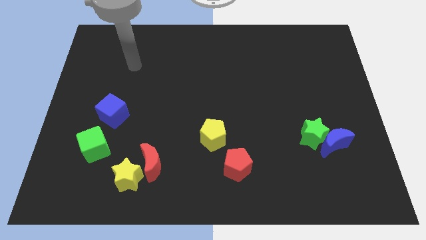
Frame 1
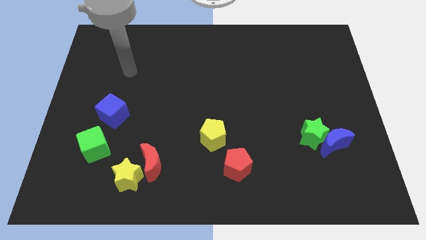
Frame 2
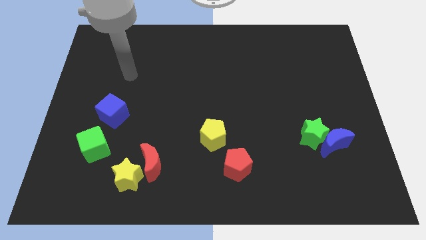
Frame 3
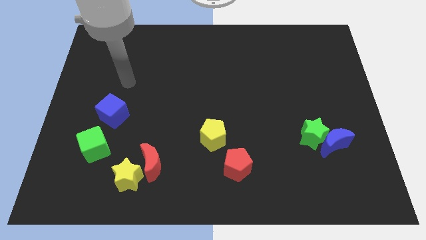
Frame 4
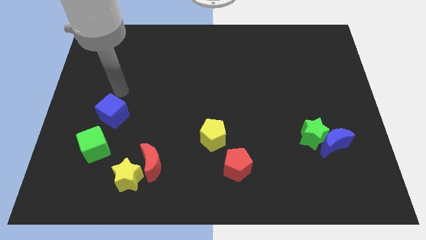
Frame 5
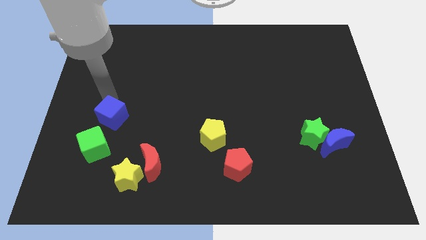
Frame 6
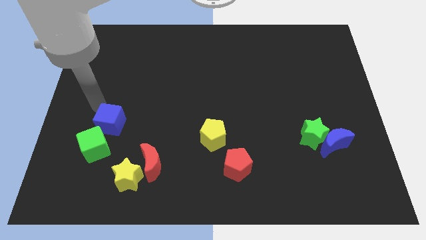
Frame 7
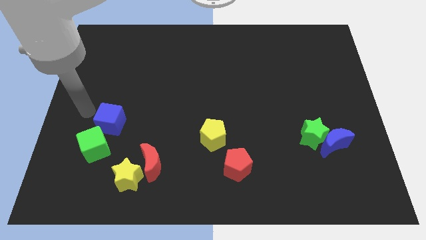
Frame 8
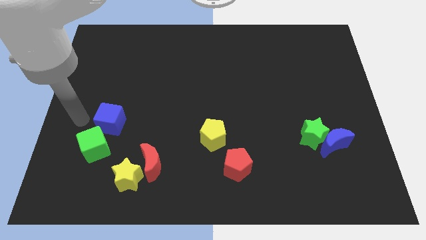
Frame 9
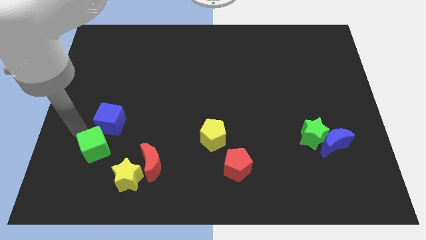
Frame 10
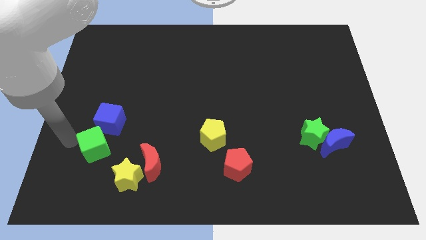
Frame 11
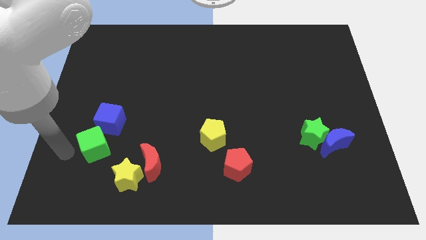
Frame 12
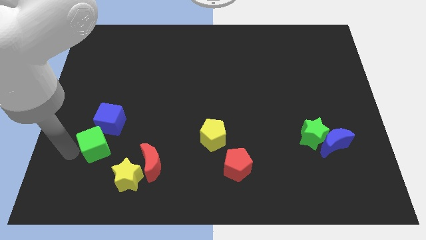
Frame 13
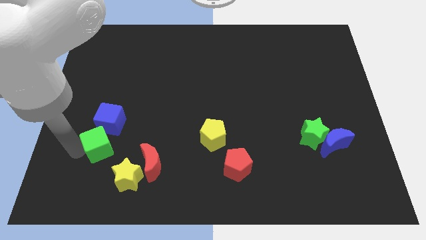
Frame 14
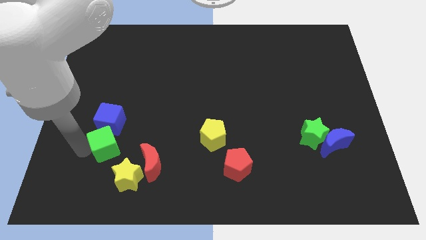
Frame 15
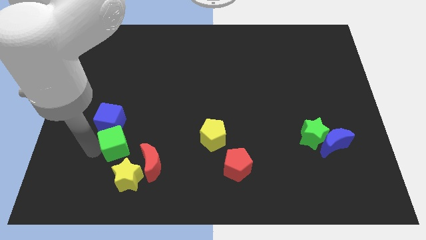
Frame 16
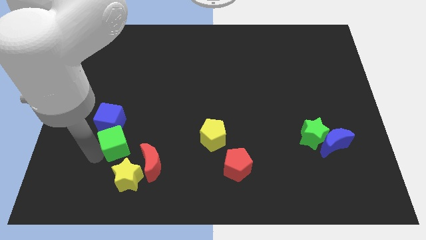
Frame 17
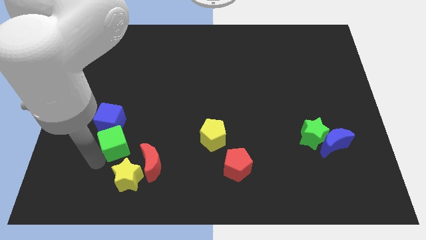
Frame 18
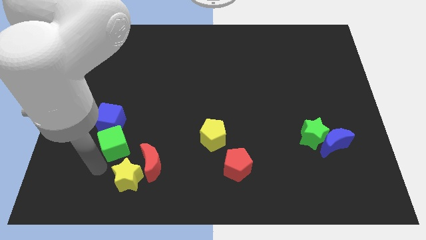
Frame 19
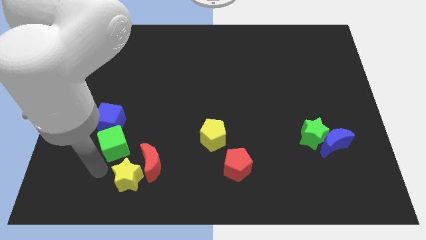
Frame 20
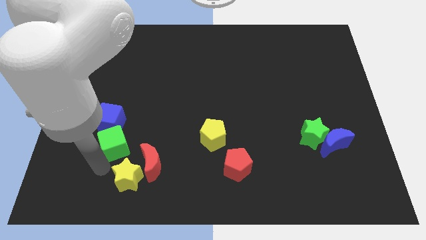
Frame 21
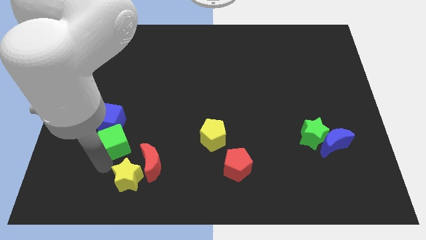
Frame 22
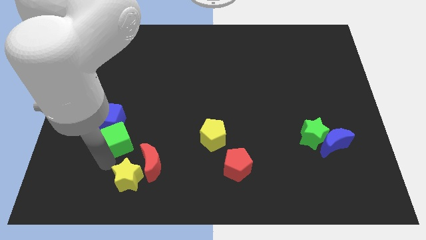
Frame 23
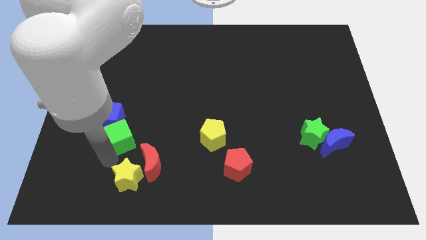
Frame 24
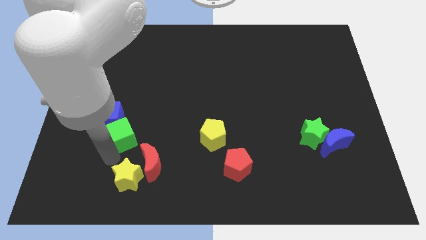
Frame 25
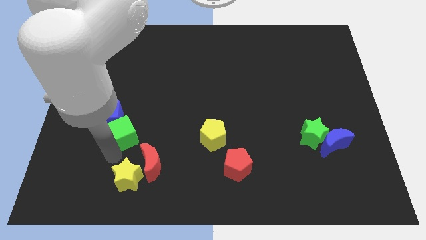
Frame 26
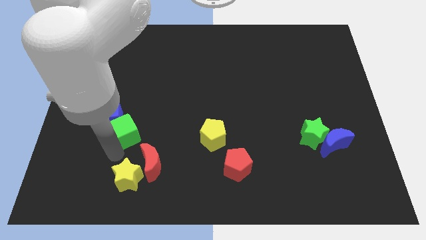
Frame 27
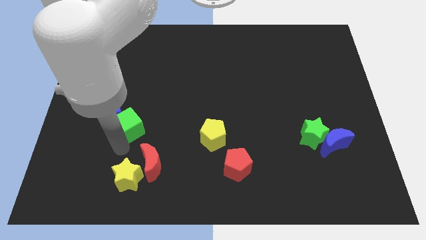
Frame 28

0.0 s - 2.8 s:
slightly move the green cube up and to the right diagonally

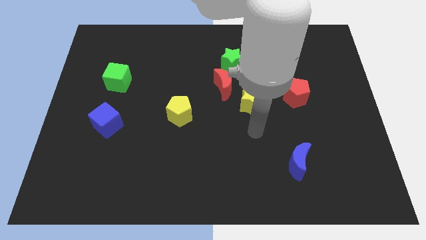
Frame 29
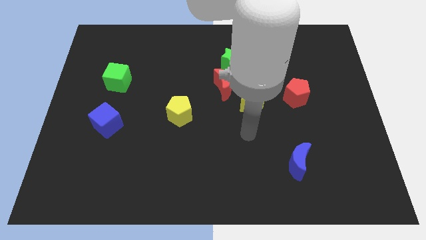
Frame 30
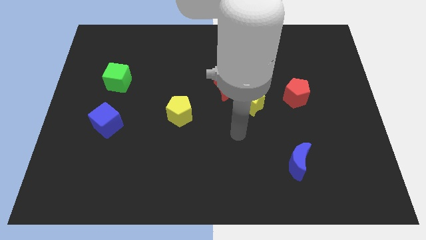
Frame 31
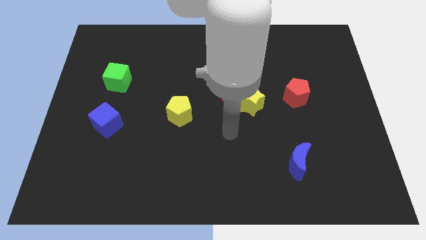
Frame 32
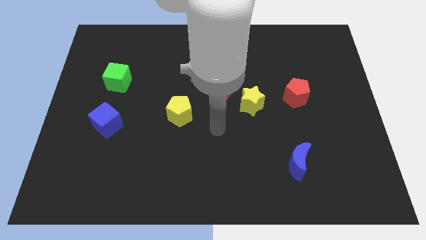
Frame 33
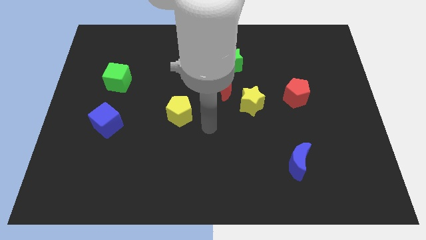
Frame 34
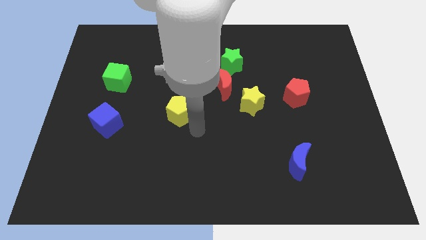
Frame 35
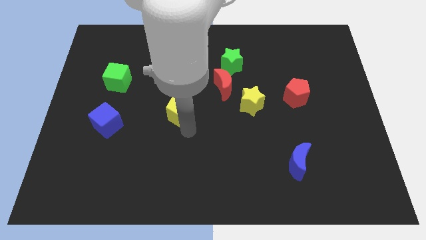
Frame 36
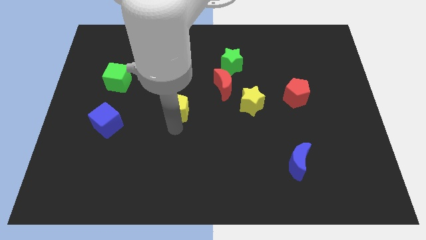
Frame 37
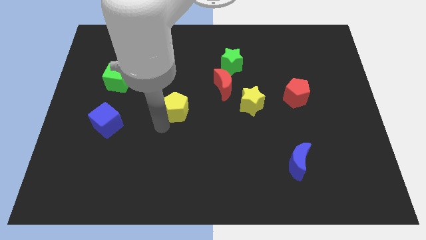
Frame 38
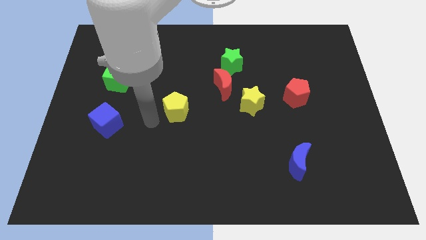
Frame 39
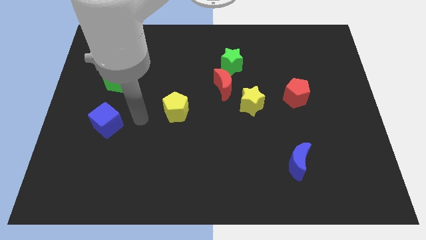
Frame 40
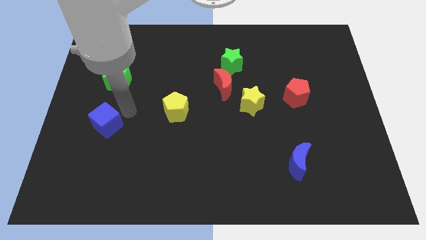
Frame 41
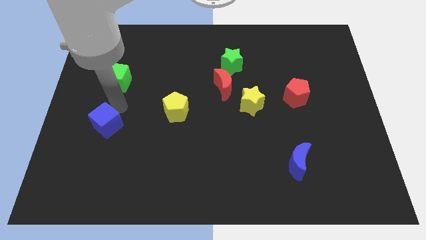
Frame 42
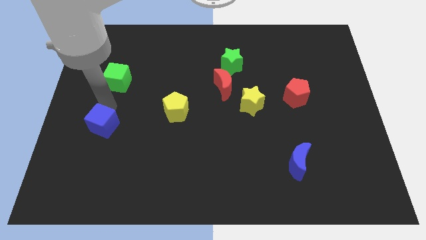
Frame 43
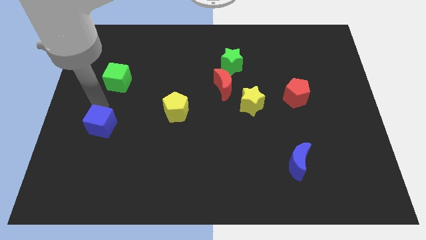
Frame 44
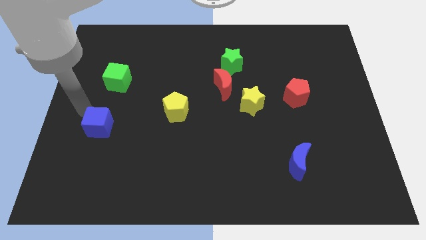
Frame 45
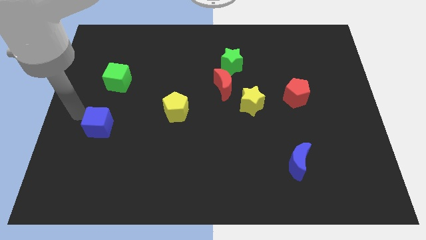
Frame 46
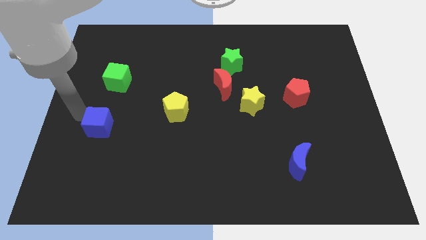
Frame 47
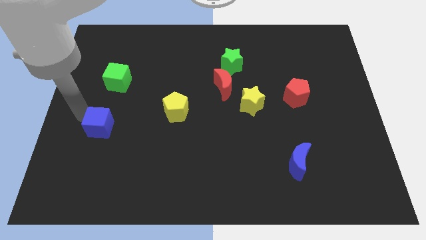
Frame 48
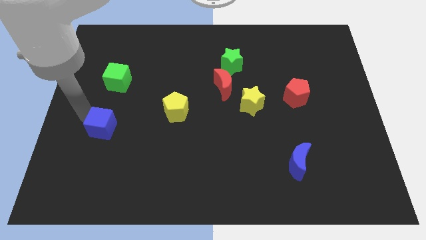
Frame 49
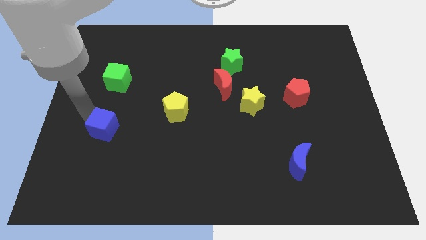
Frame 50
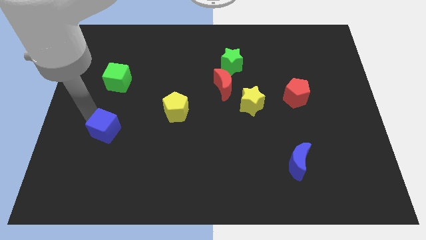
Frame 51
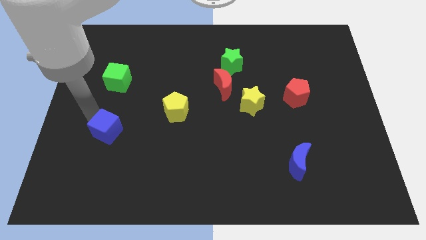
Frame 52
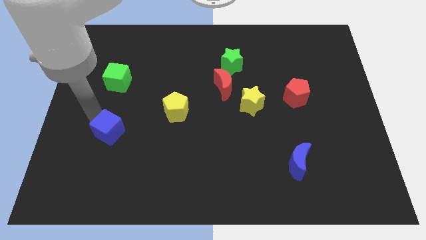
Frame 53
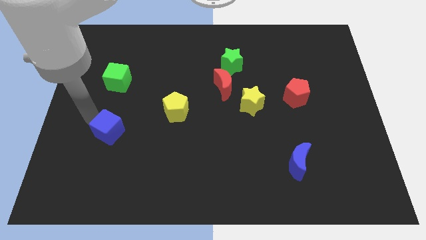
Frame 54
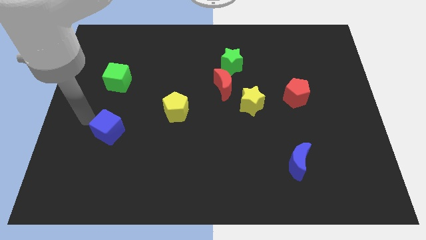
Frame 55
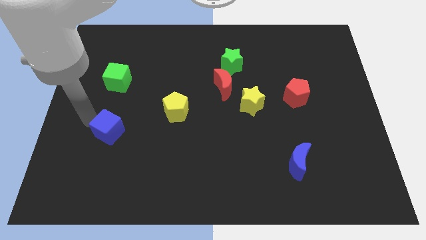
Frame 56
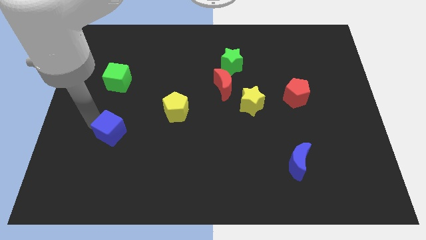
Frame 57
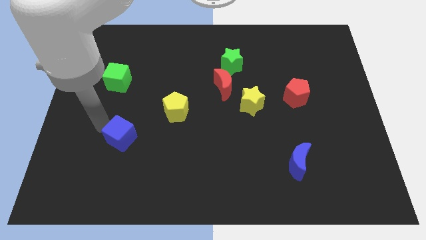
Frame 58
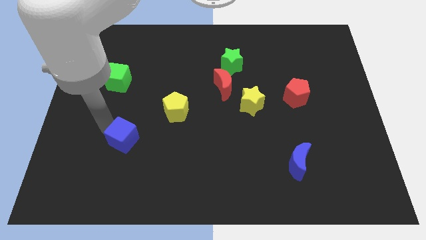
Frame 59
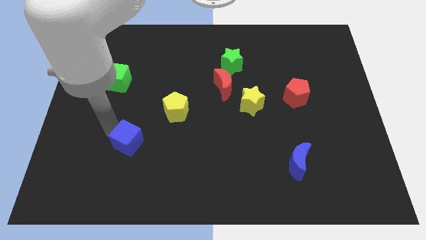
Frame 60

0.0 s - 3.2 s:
push the blue cube somewhat down and to the right

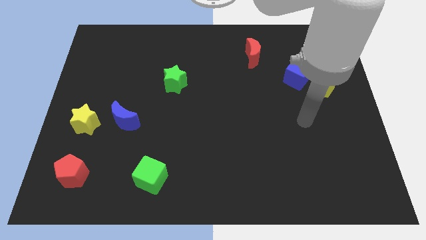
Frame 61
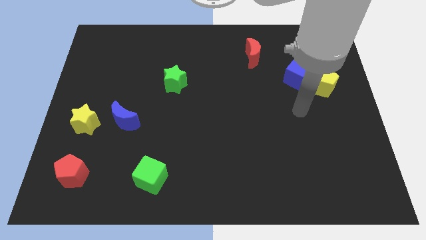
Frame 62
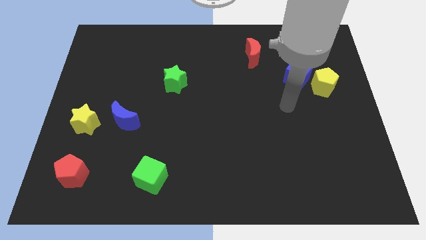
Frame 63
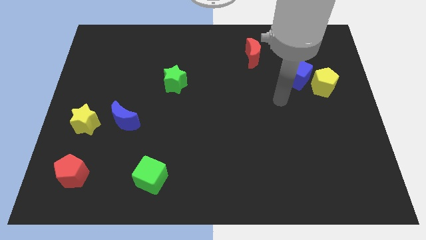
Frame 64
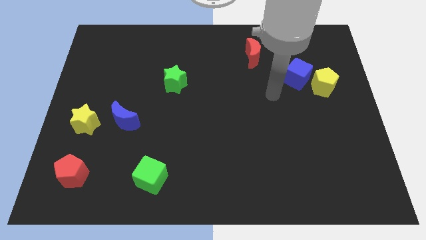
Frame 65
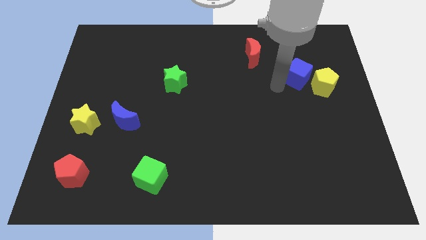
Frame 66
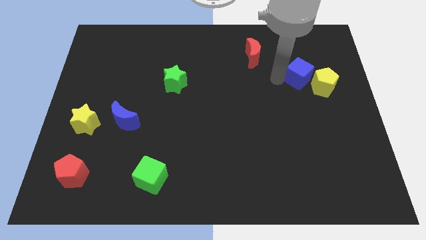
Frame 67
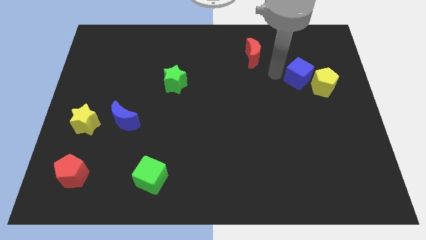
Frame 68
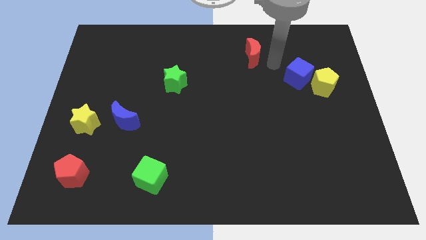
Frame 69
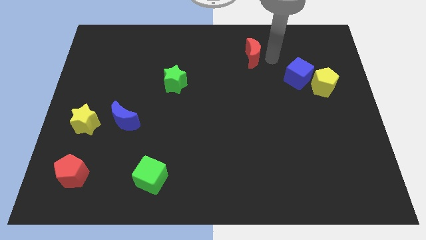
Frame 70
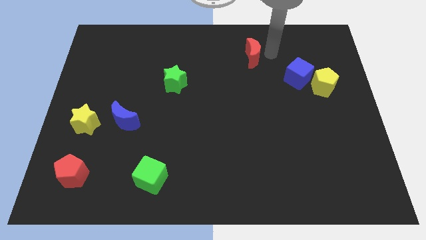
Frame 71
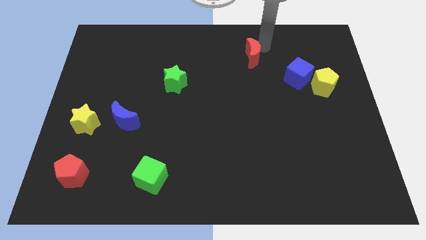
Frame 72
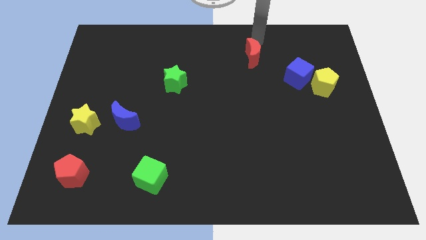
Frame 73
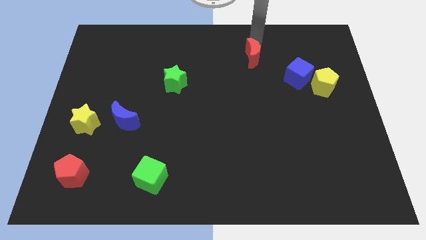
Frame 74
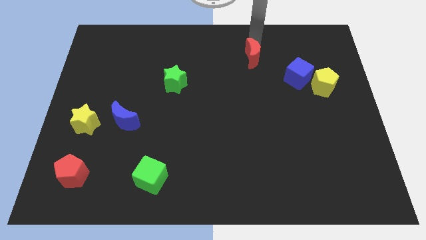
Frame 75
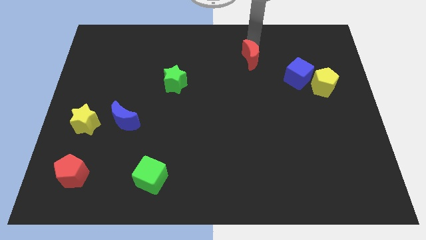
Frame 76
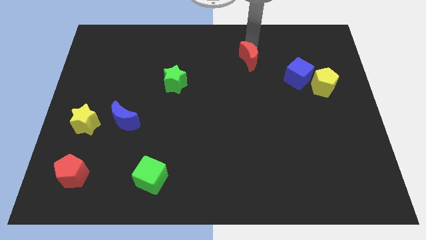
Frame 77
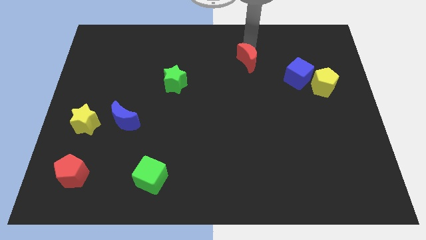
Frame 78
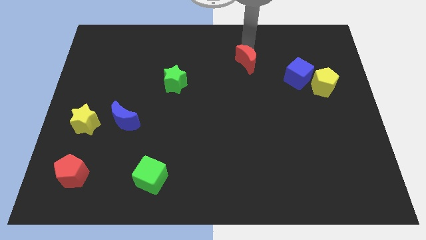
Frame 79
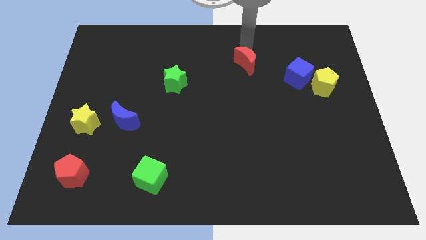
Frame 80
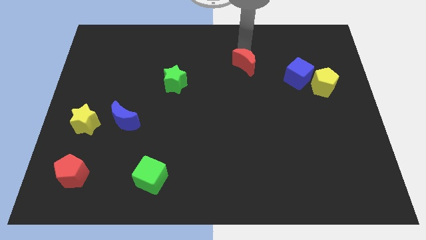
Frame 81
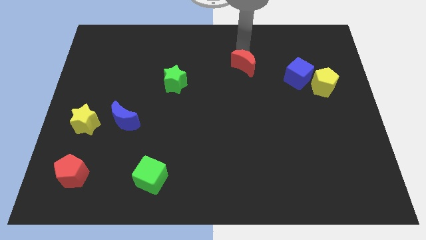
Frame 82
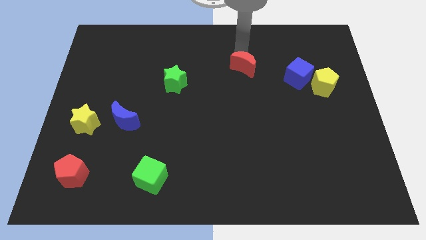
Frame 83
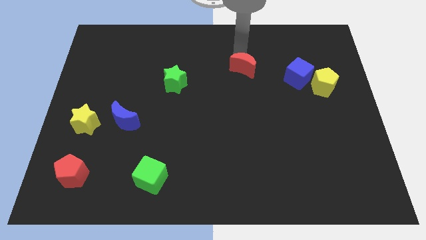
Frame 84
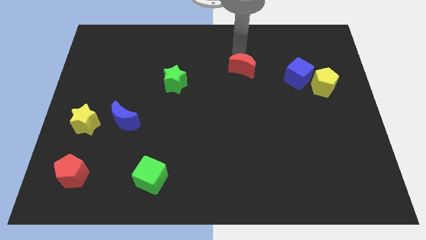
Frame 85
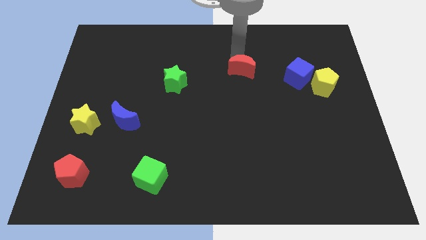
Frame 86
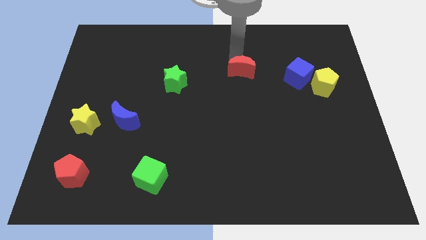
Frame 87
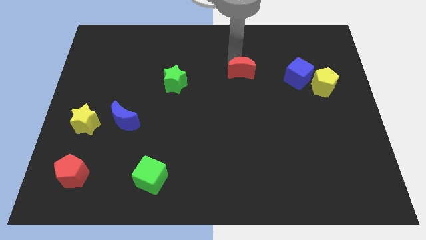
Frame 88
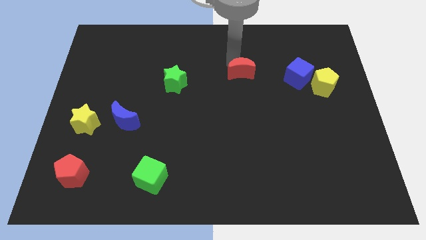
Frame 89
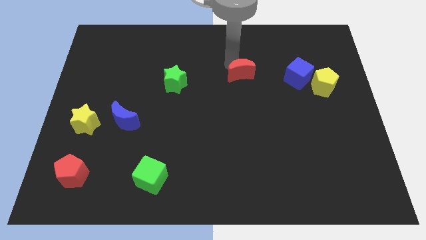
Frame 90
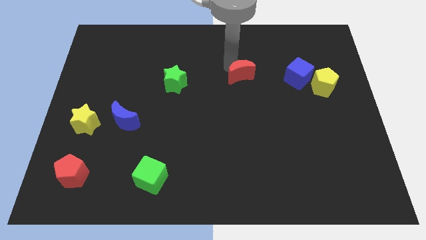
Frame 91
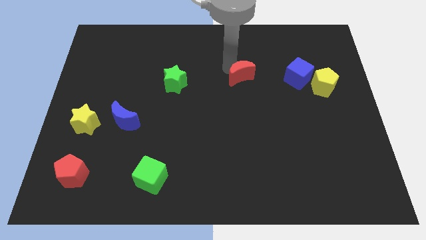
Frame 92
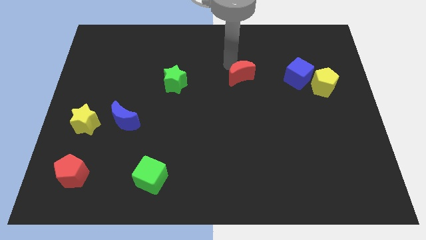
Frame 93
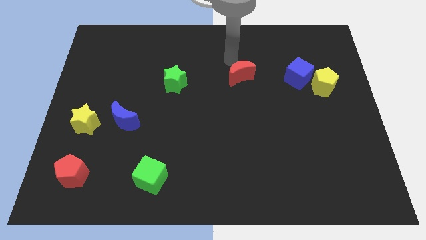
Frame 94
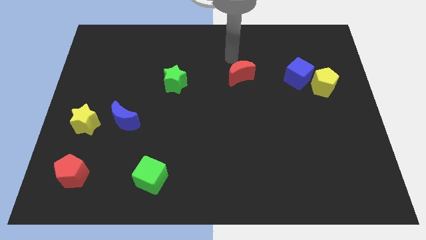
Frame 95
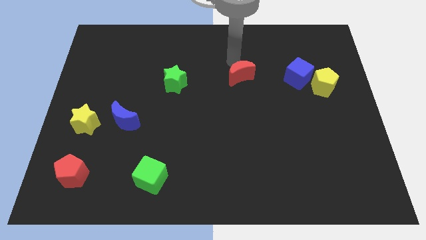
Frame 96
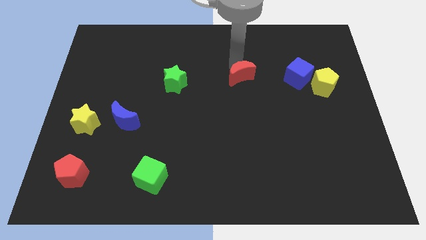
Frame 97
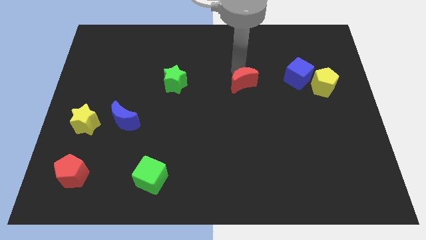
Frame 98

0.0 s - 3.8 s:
move the red moon downwards slightly
